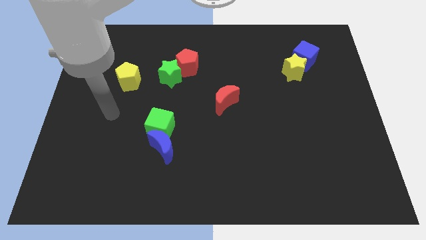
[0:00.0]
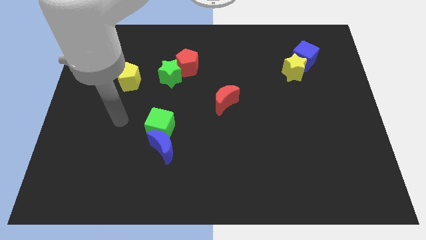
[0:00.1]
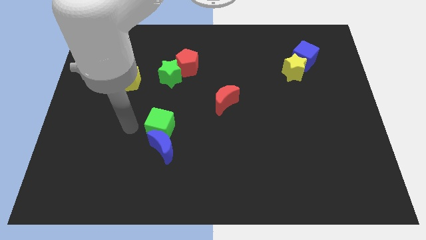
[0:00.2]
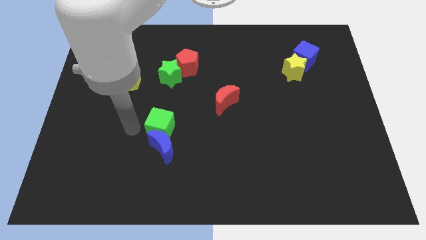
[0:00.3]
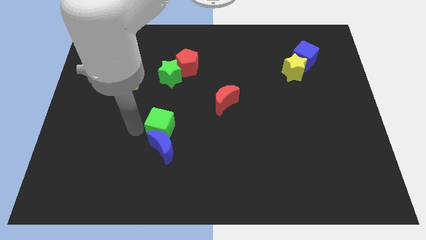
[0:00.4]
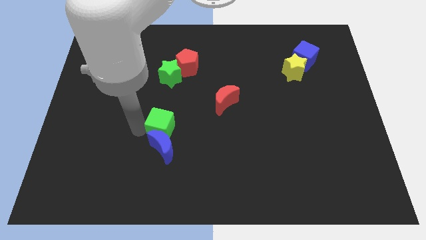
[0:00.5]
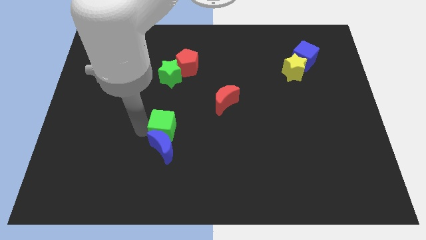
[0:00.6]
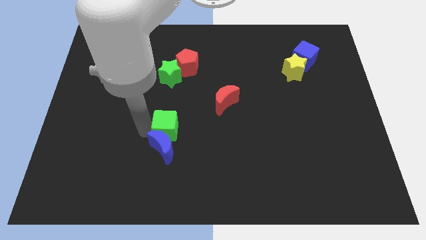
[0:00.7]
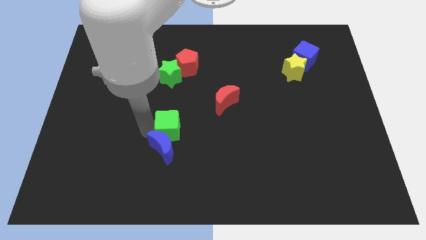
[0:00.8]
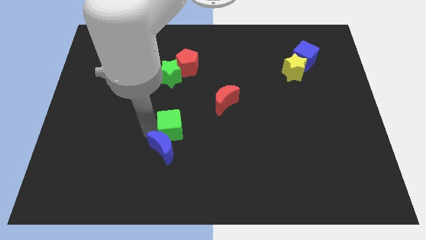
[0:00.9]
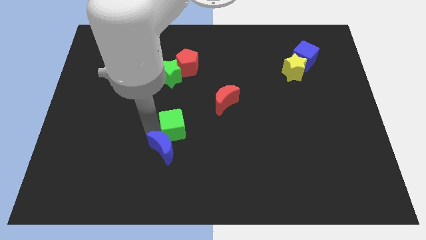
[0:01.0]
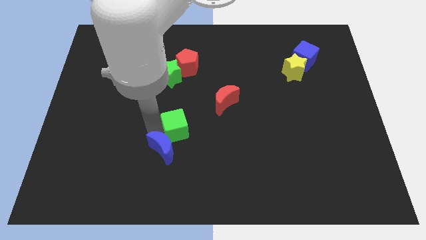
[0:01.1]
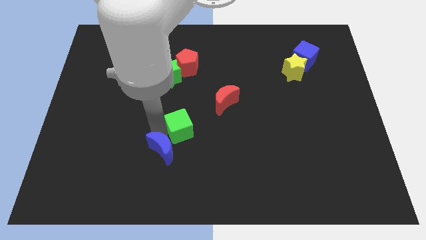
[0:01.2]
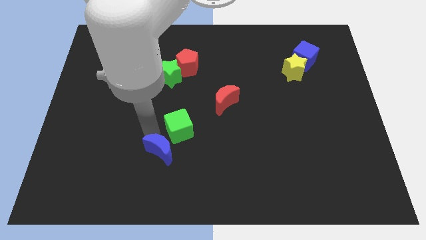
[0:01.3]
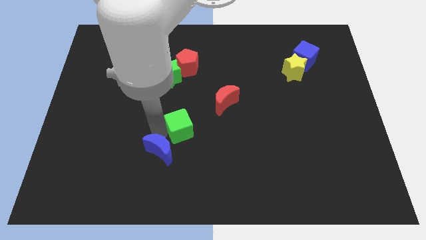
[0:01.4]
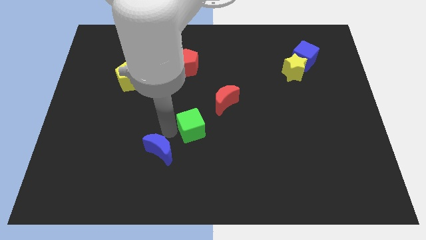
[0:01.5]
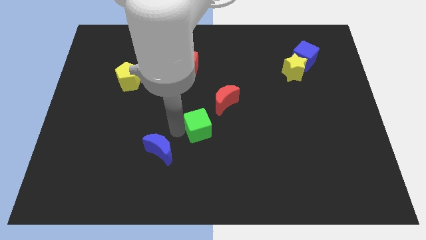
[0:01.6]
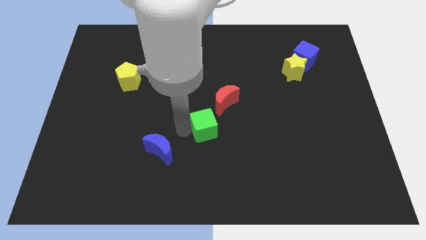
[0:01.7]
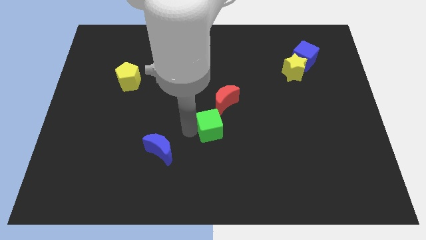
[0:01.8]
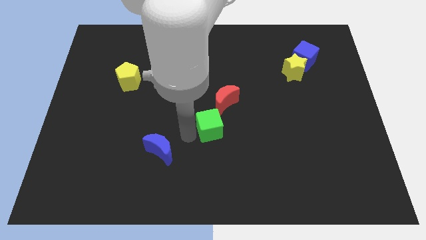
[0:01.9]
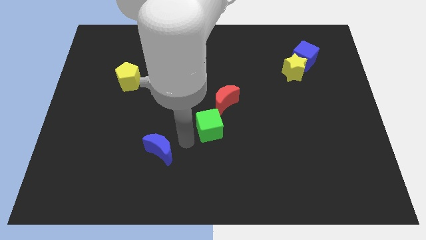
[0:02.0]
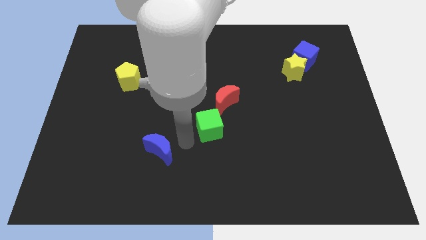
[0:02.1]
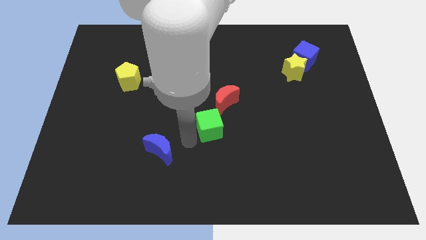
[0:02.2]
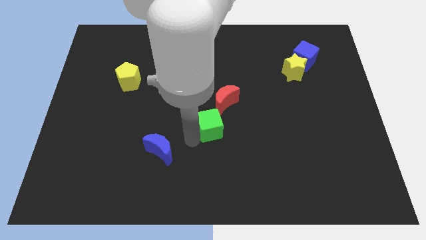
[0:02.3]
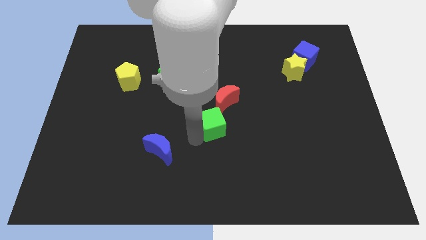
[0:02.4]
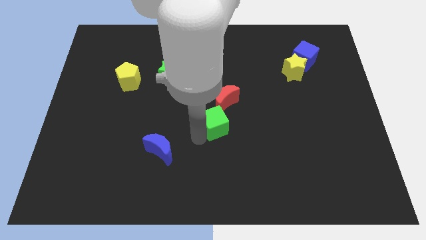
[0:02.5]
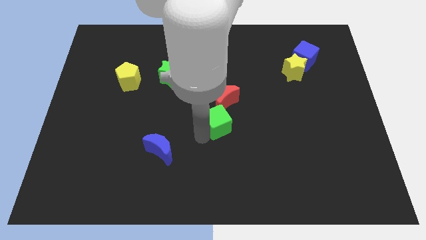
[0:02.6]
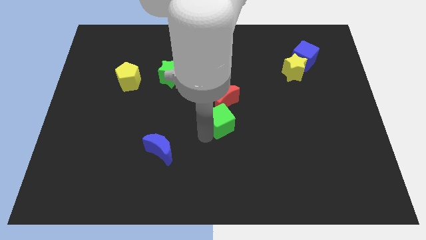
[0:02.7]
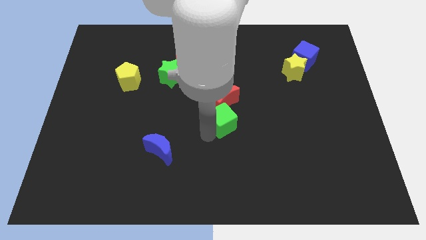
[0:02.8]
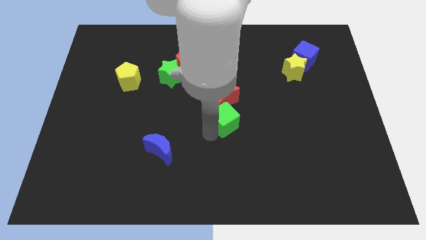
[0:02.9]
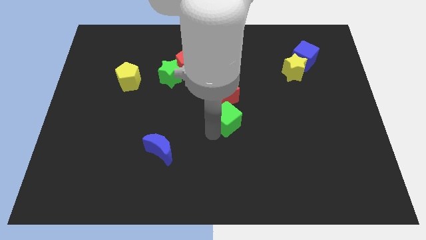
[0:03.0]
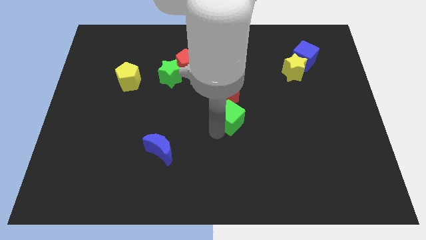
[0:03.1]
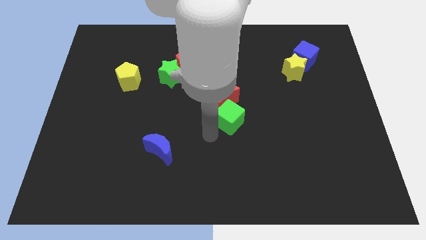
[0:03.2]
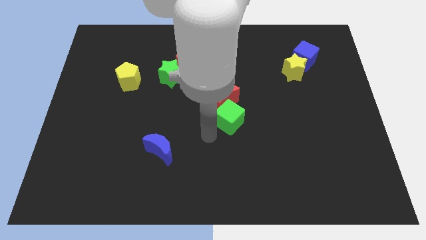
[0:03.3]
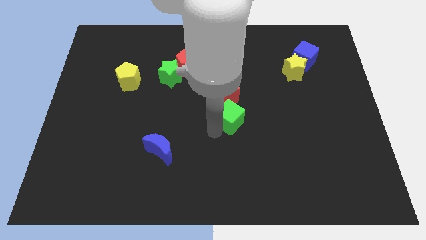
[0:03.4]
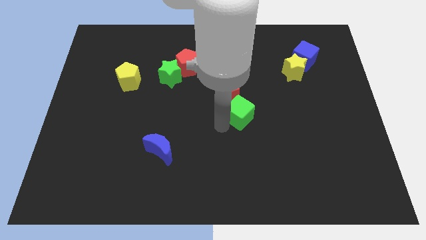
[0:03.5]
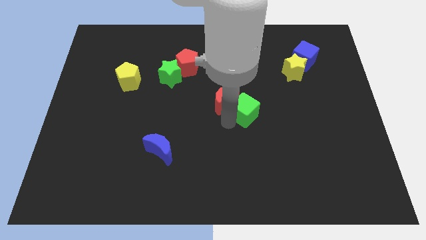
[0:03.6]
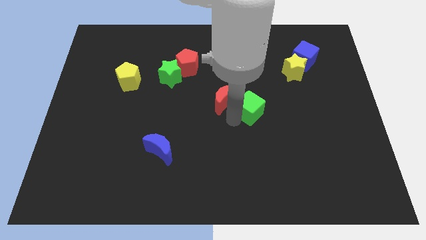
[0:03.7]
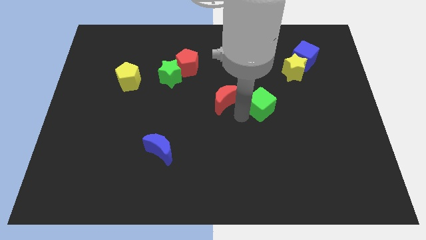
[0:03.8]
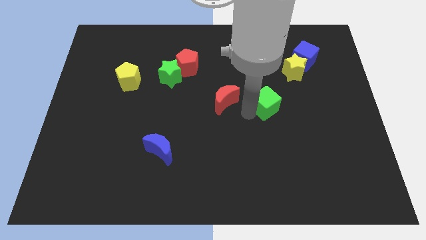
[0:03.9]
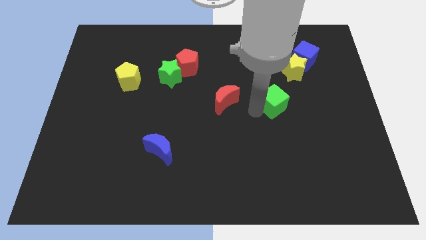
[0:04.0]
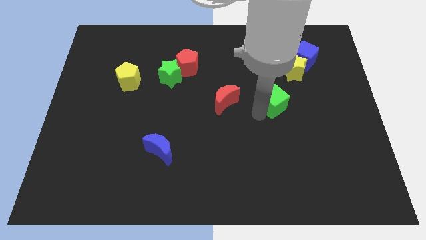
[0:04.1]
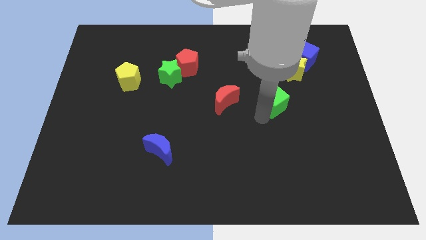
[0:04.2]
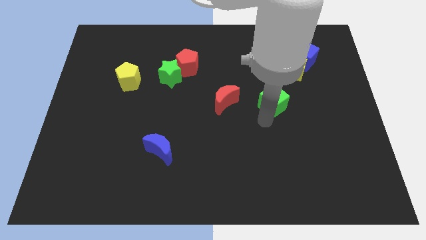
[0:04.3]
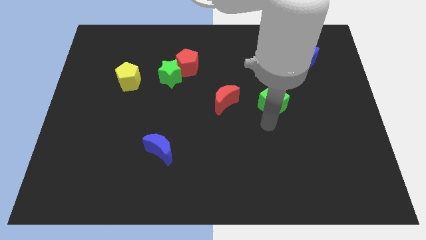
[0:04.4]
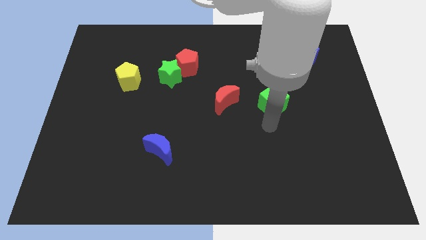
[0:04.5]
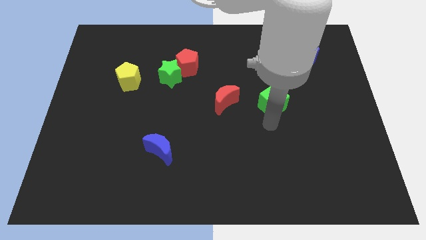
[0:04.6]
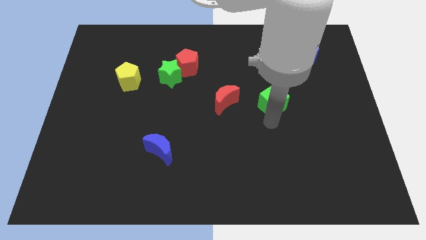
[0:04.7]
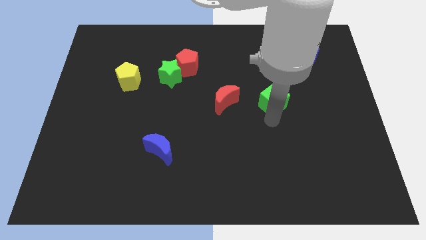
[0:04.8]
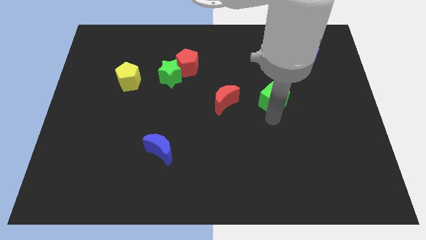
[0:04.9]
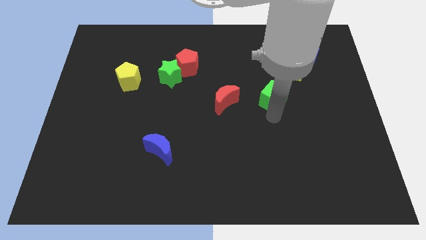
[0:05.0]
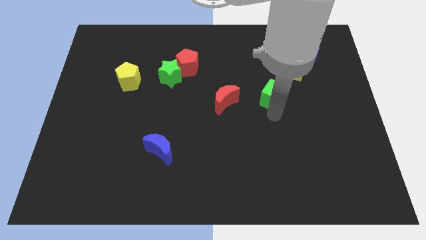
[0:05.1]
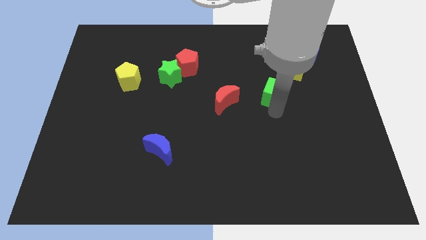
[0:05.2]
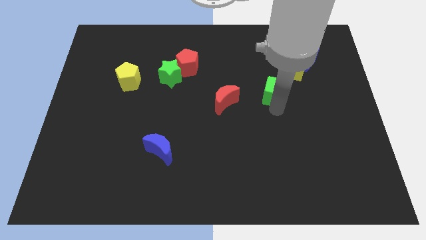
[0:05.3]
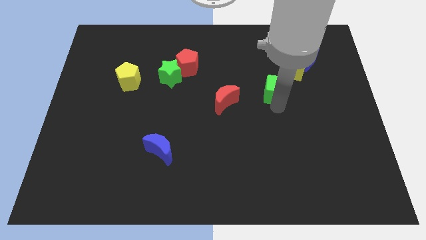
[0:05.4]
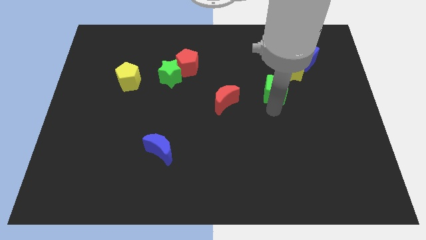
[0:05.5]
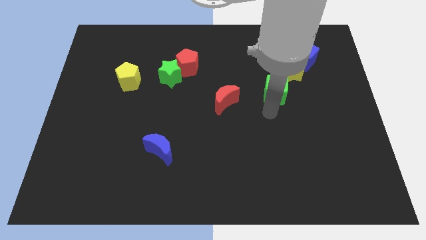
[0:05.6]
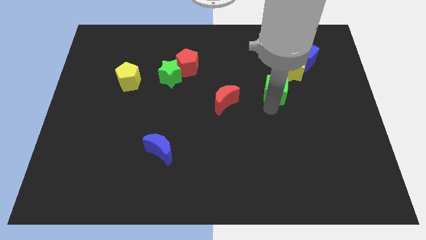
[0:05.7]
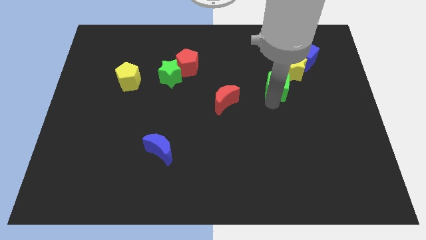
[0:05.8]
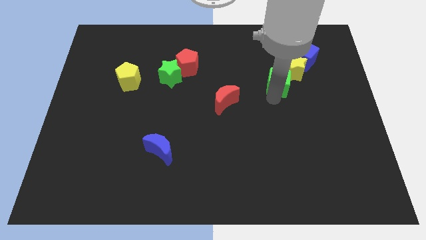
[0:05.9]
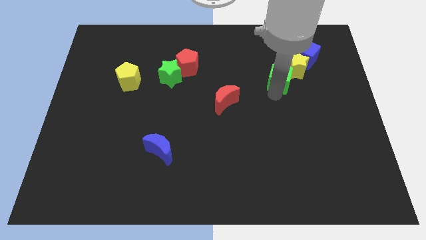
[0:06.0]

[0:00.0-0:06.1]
slide the green cube towards the yellow star
